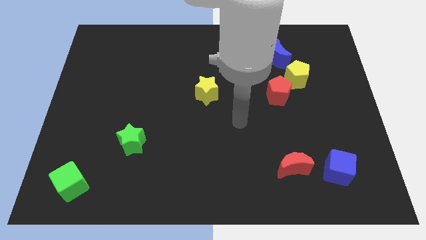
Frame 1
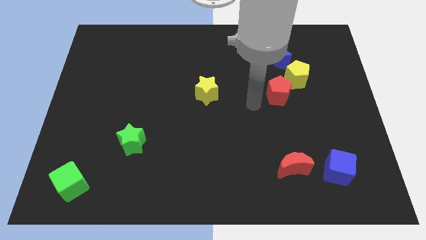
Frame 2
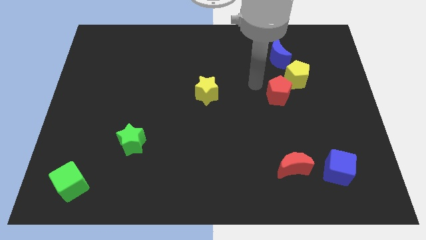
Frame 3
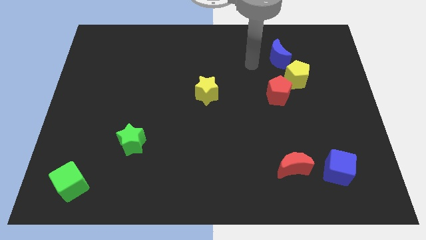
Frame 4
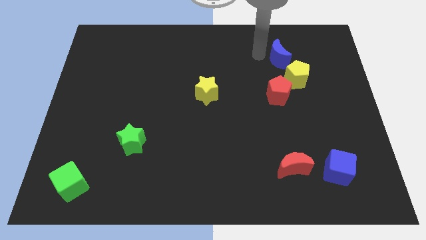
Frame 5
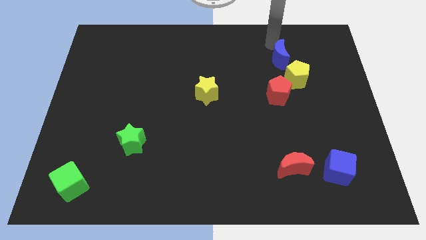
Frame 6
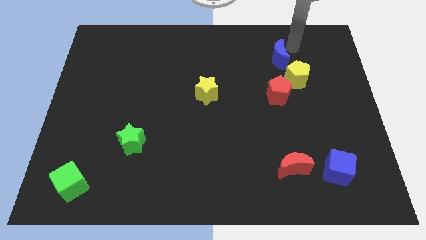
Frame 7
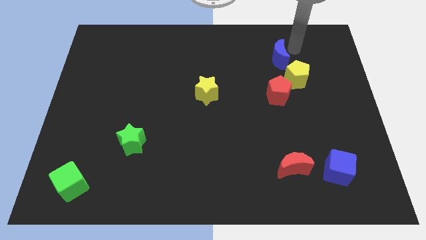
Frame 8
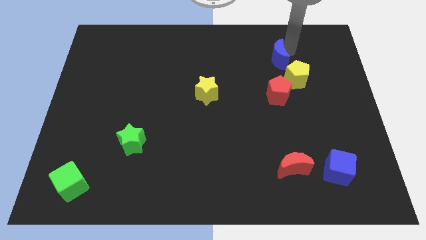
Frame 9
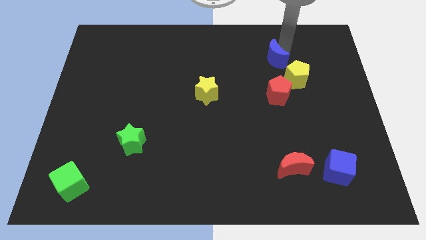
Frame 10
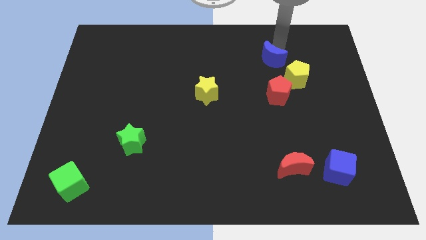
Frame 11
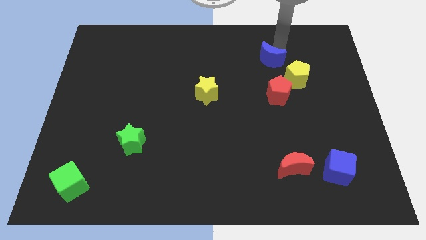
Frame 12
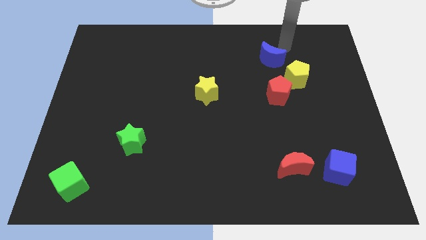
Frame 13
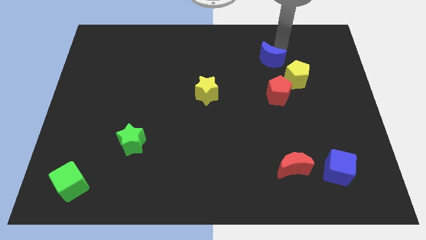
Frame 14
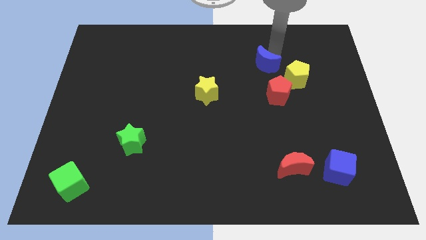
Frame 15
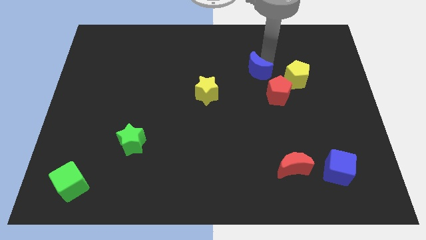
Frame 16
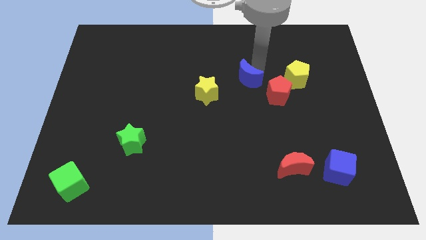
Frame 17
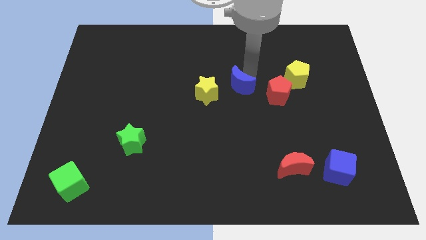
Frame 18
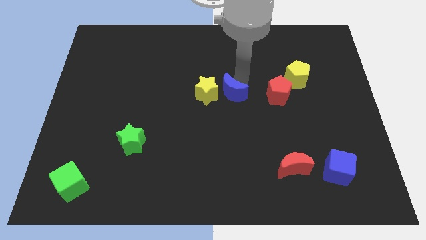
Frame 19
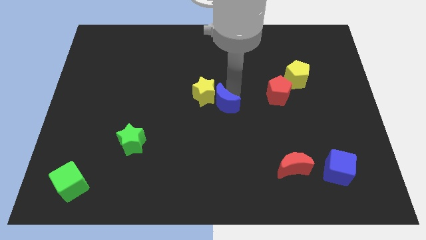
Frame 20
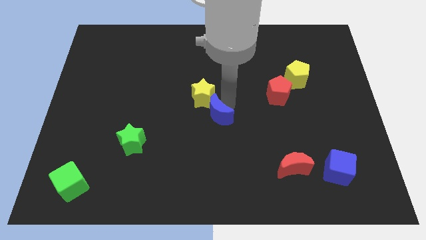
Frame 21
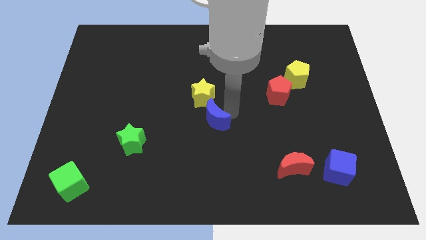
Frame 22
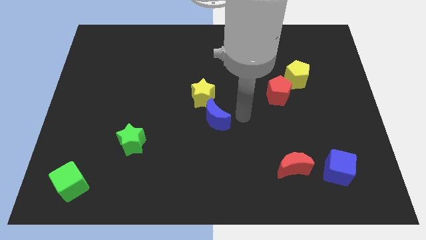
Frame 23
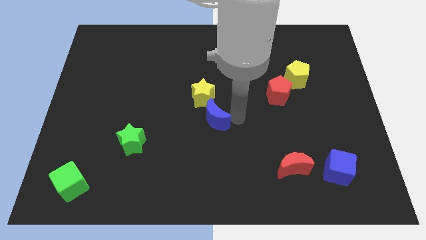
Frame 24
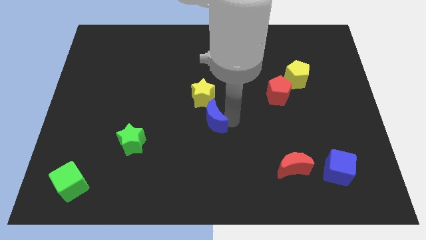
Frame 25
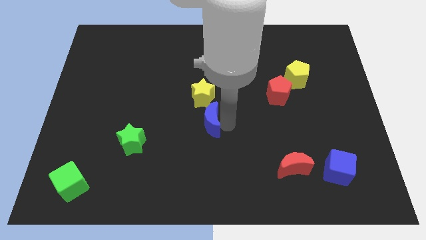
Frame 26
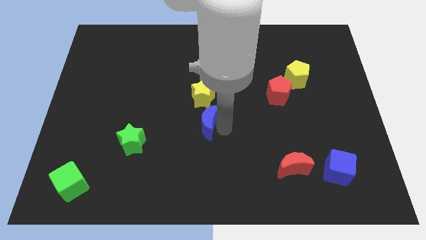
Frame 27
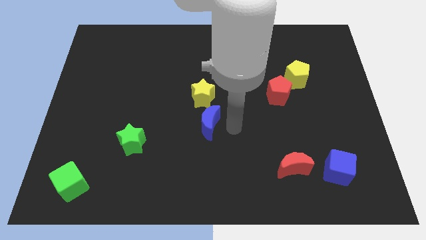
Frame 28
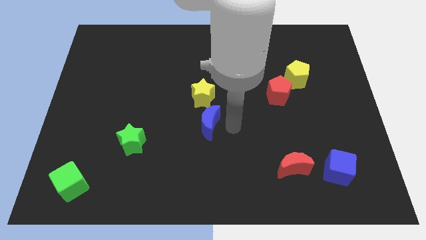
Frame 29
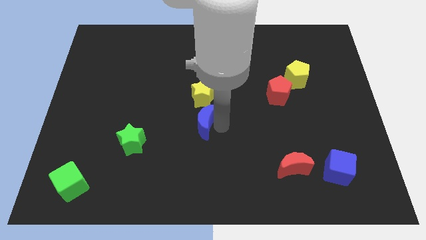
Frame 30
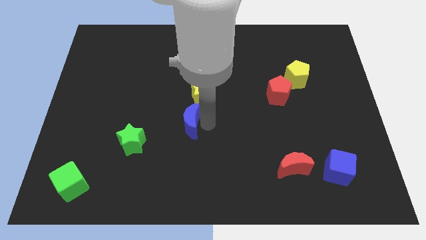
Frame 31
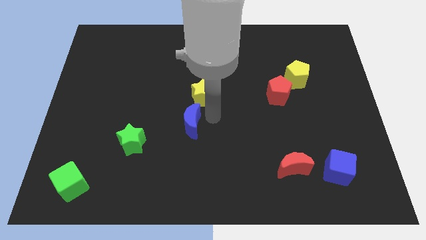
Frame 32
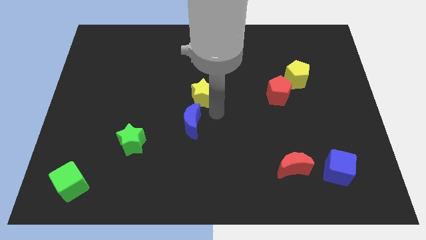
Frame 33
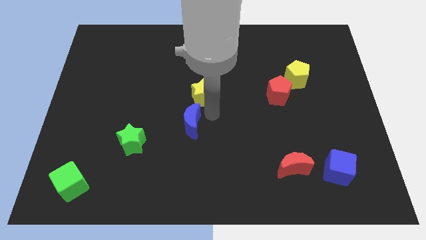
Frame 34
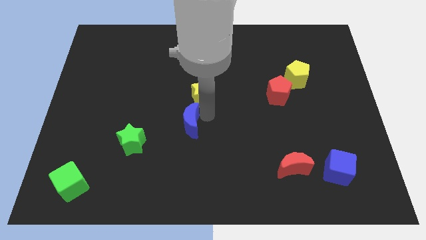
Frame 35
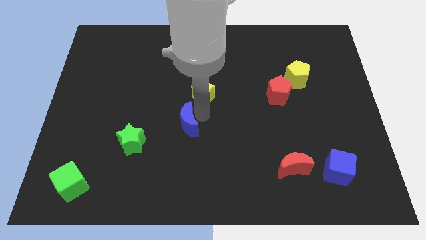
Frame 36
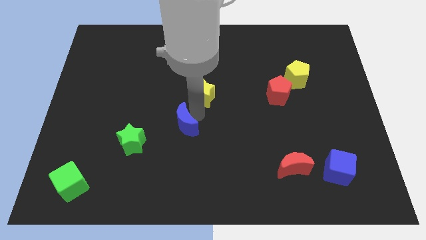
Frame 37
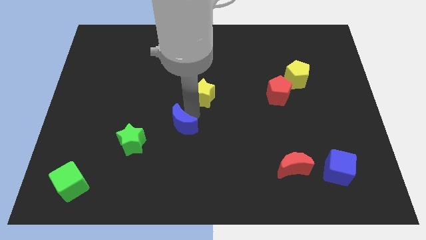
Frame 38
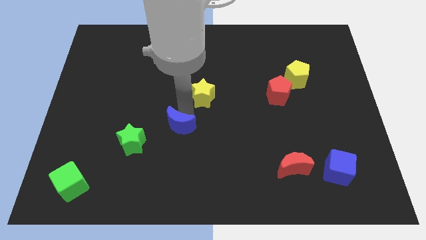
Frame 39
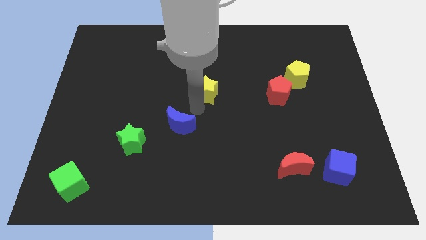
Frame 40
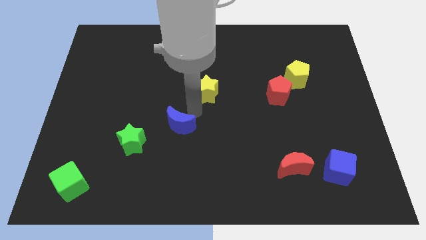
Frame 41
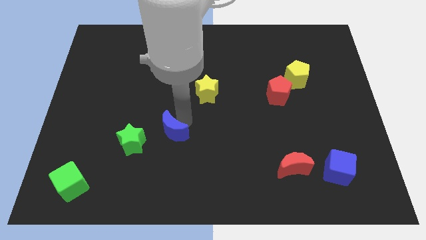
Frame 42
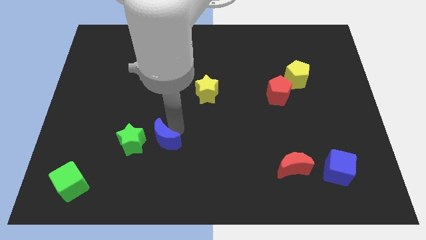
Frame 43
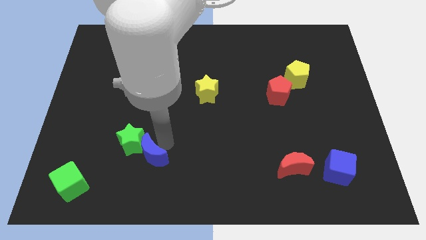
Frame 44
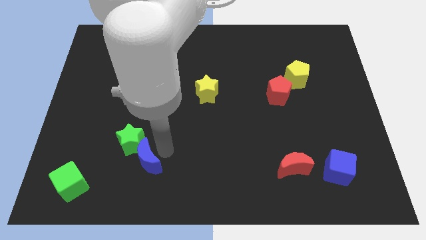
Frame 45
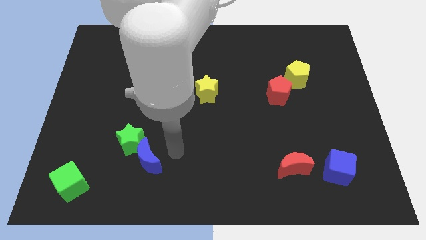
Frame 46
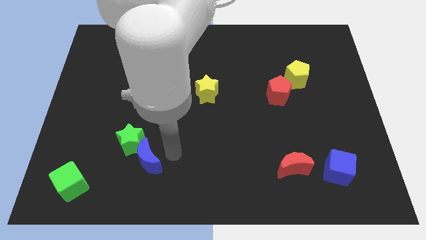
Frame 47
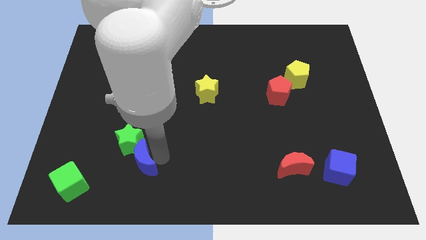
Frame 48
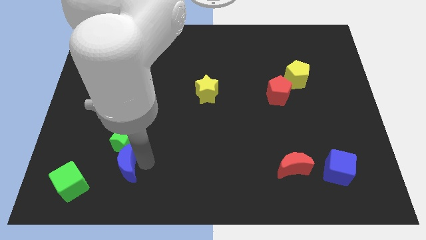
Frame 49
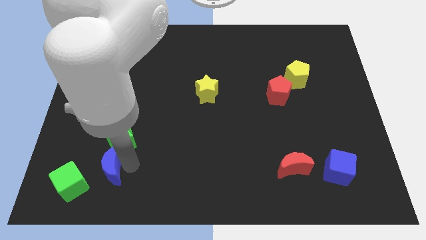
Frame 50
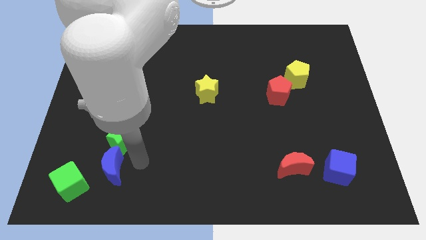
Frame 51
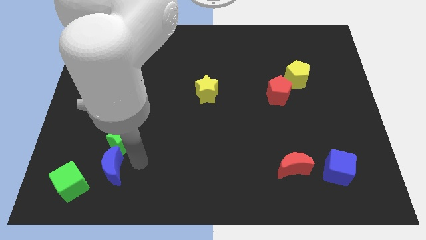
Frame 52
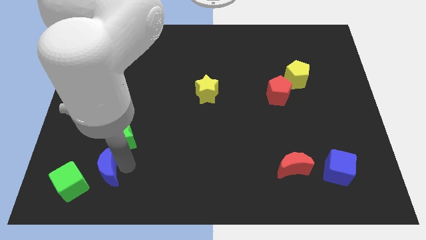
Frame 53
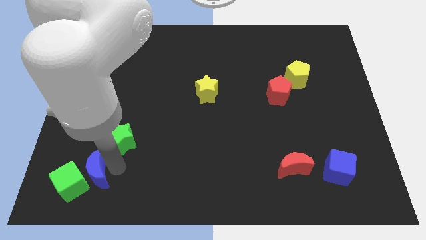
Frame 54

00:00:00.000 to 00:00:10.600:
slide the blue moon close to the green cube

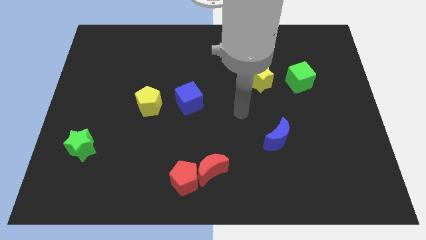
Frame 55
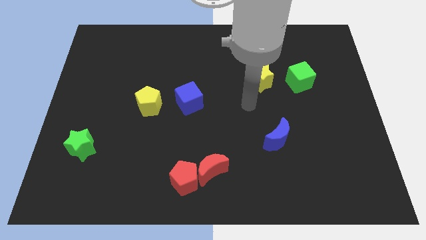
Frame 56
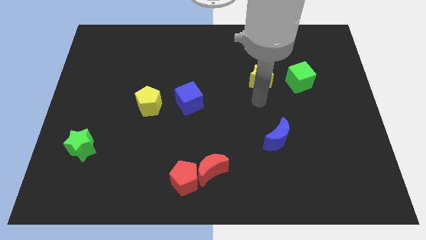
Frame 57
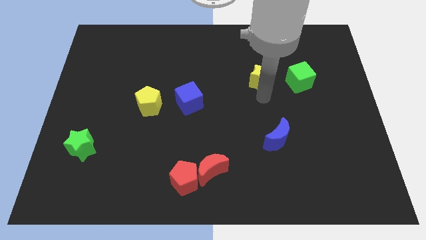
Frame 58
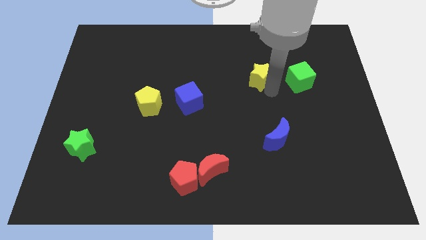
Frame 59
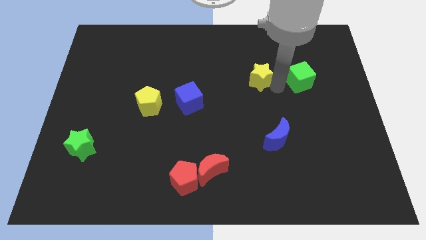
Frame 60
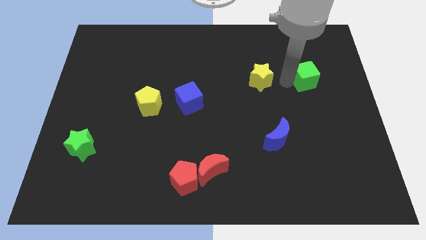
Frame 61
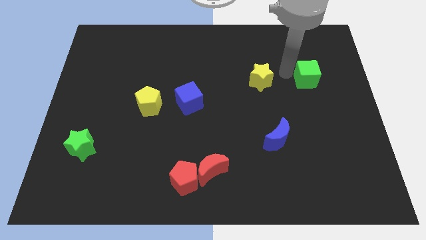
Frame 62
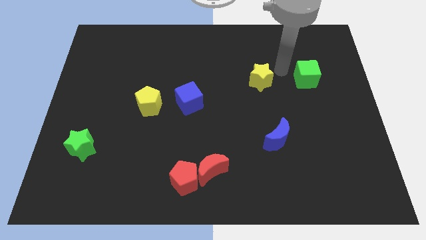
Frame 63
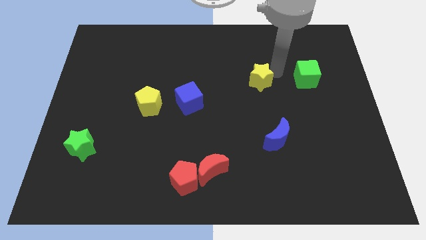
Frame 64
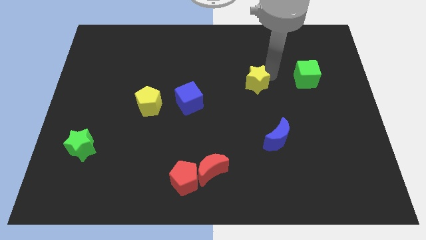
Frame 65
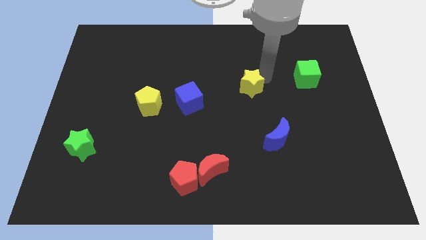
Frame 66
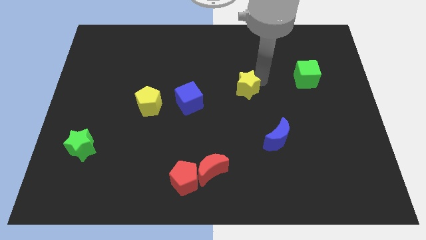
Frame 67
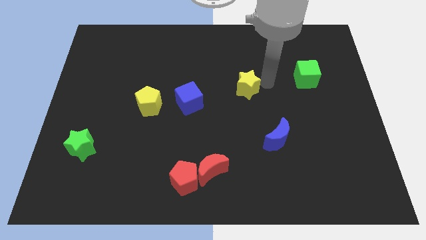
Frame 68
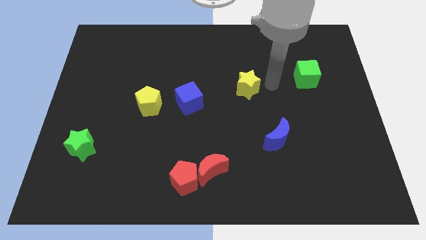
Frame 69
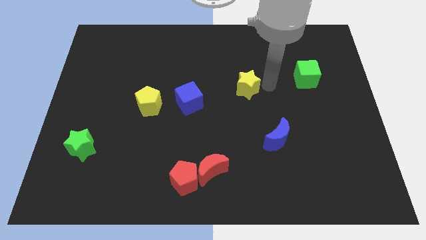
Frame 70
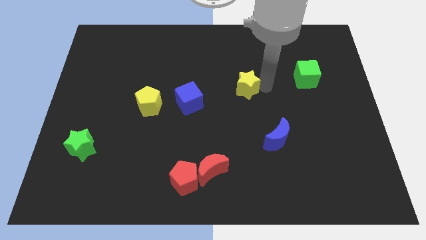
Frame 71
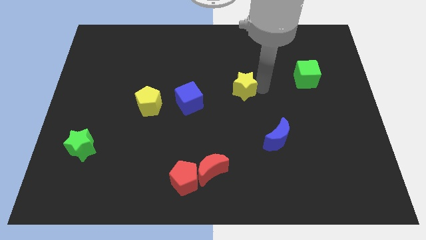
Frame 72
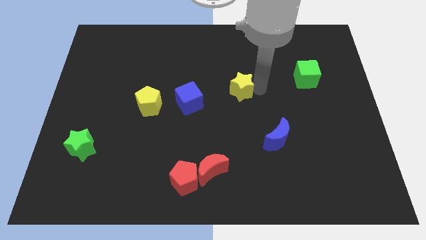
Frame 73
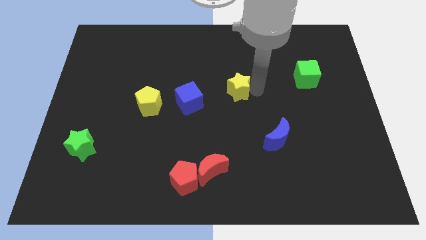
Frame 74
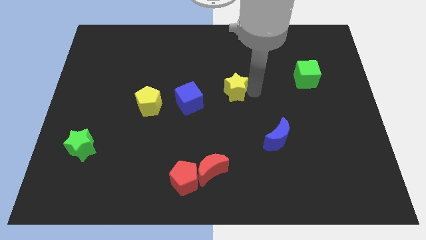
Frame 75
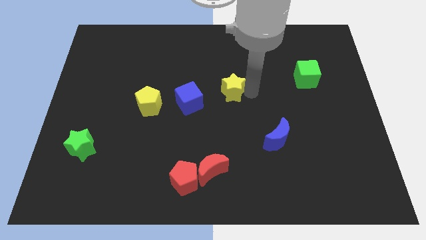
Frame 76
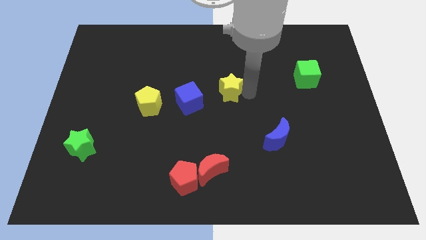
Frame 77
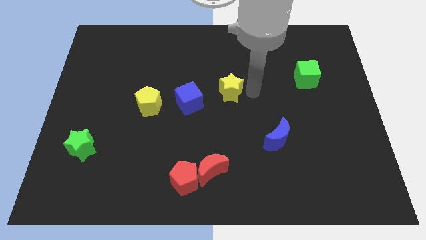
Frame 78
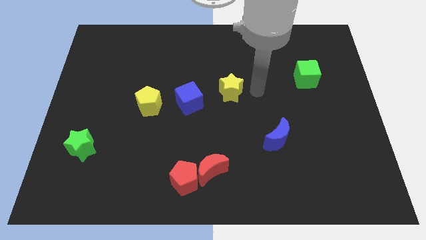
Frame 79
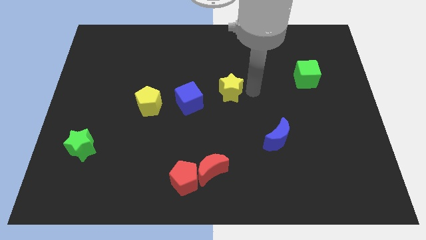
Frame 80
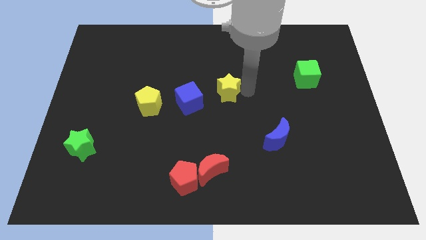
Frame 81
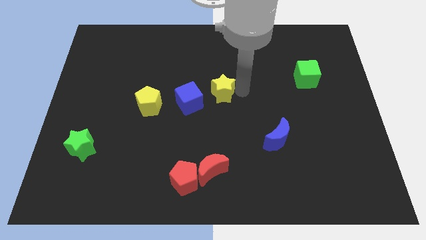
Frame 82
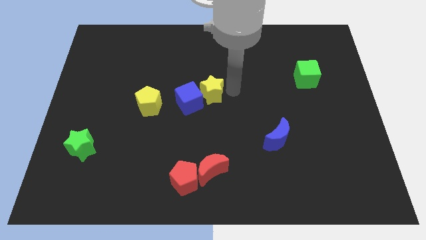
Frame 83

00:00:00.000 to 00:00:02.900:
slide the yellow star next to the blue cube
